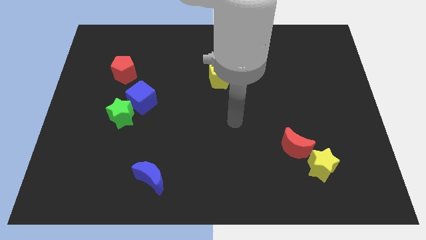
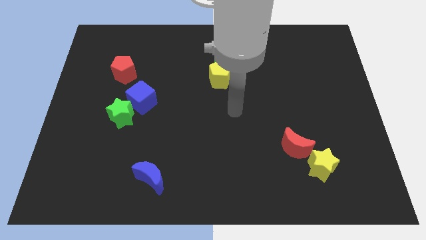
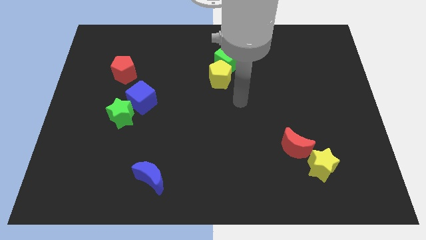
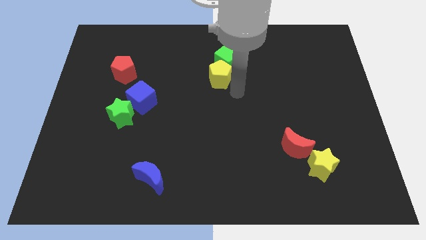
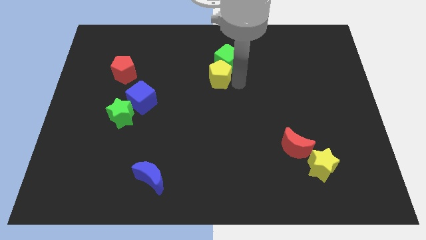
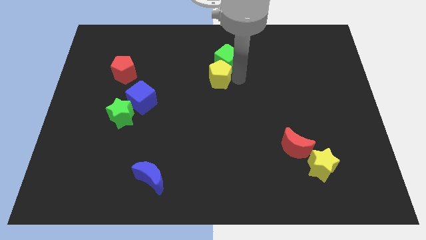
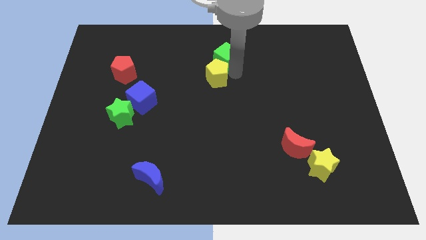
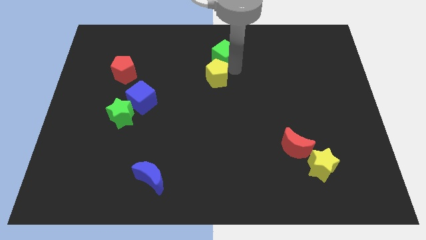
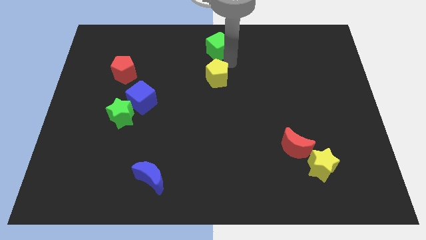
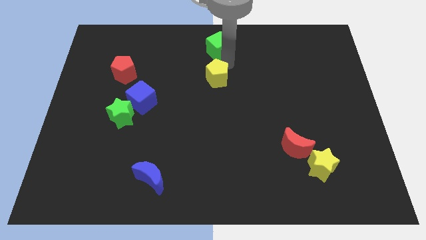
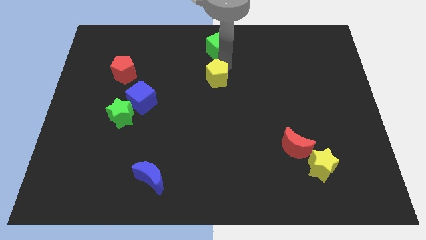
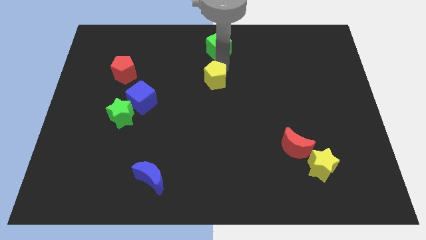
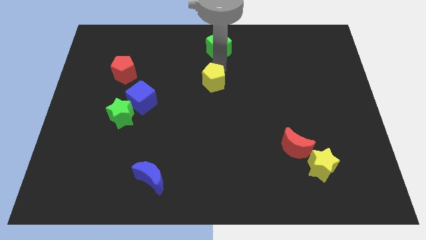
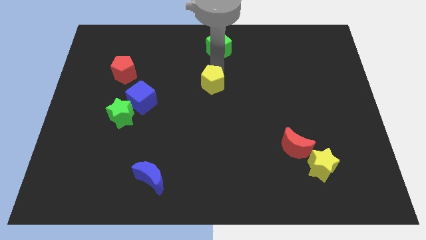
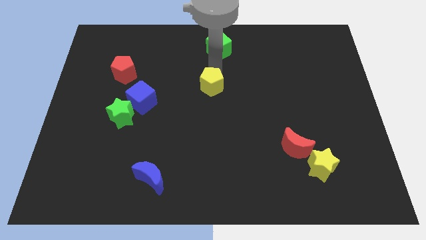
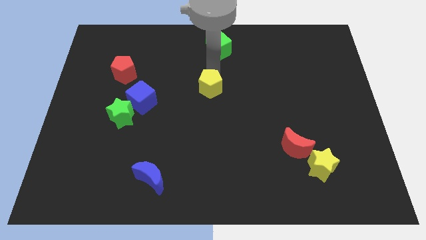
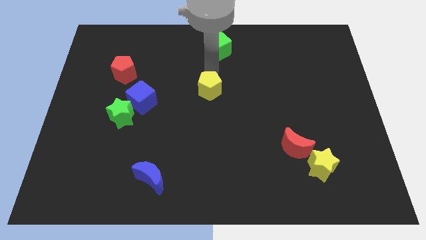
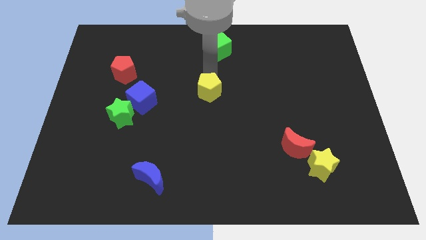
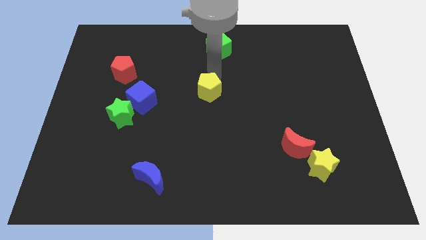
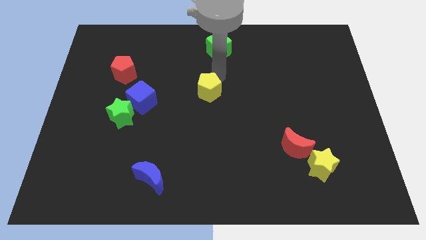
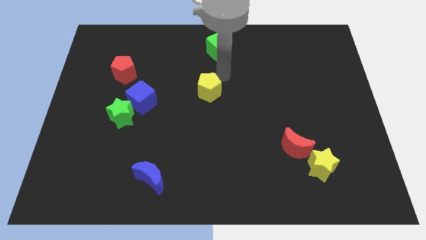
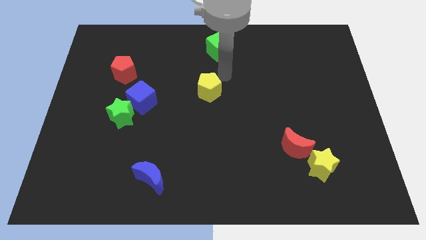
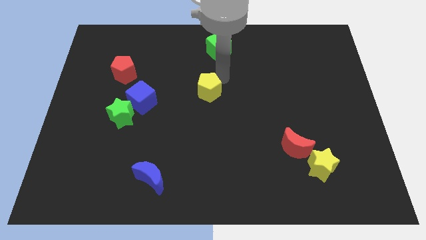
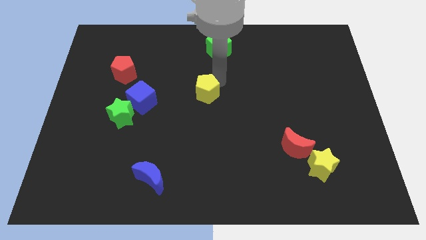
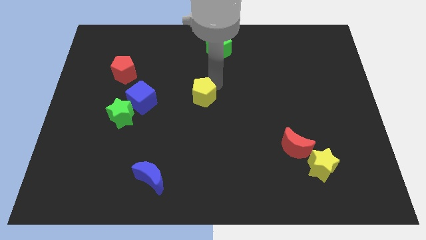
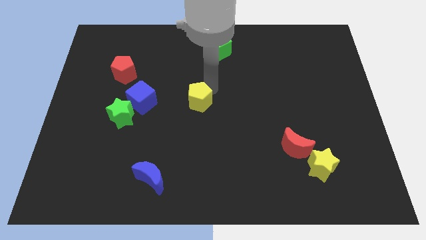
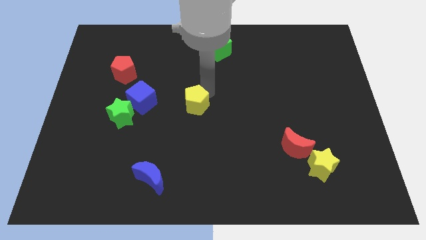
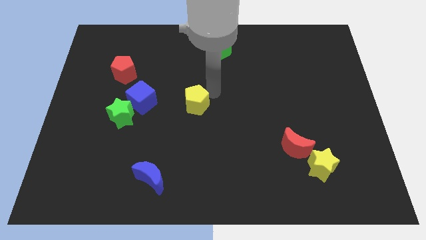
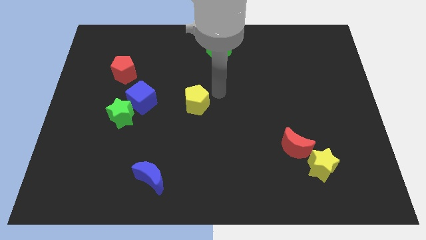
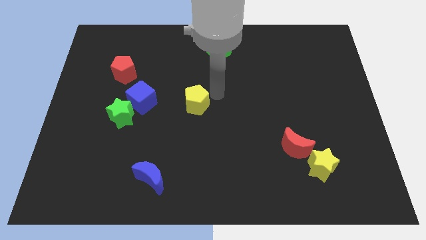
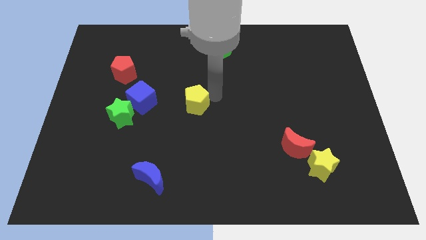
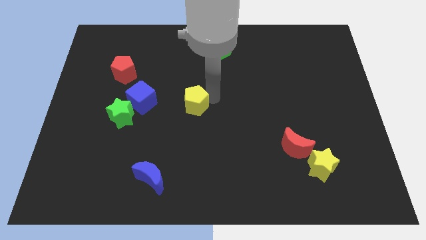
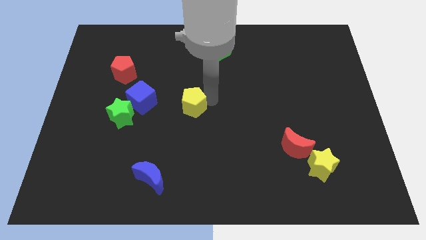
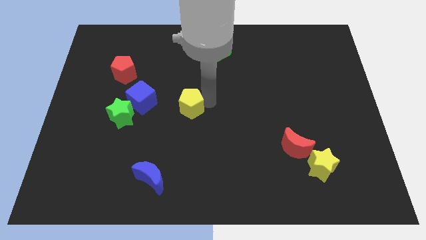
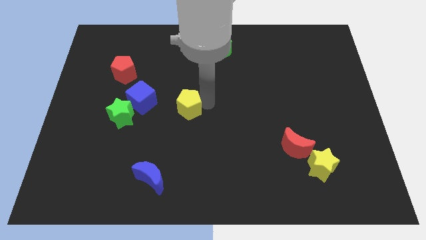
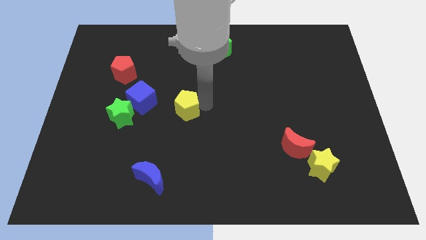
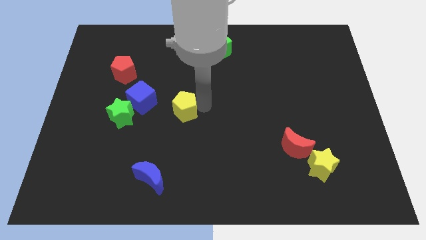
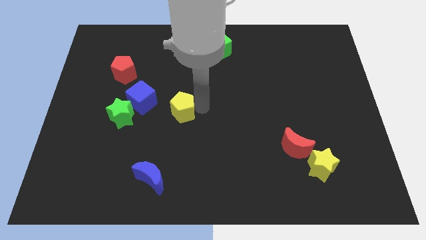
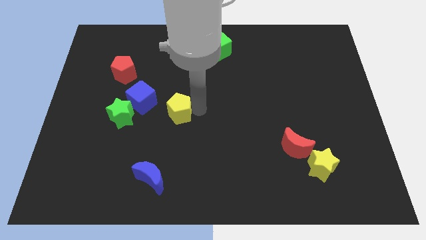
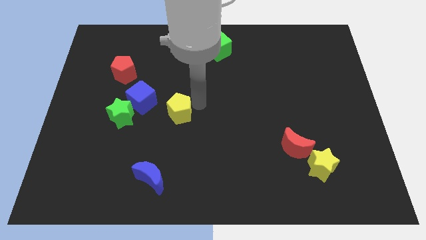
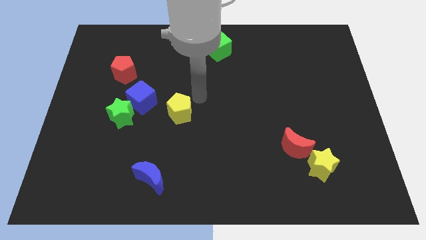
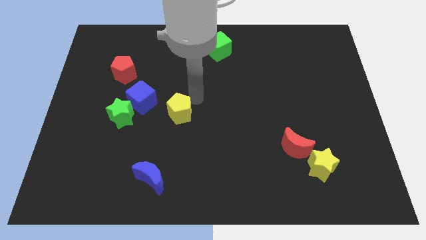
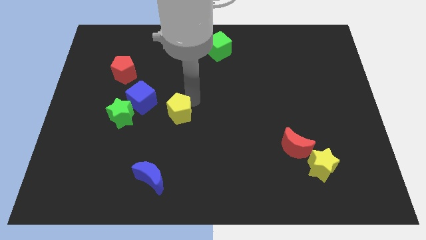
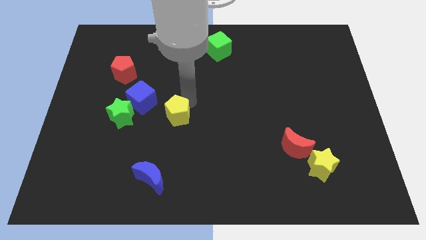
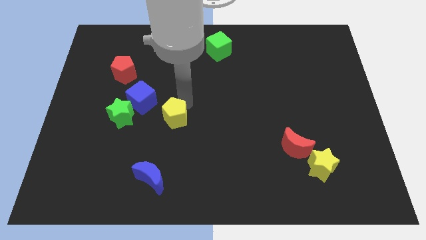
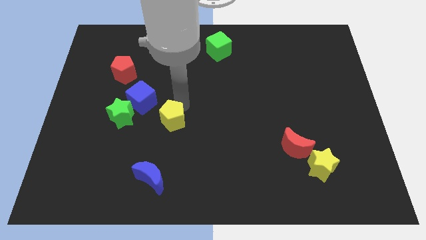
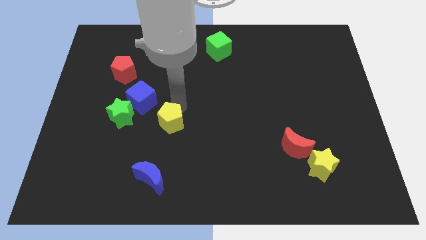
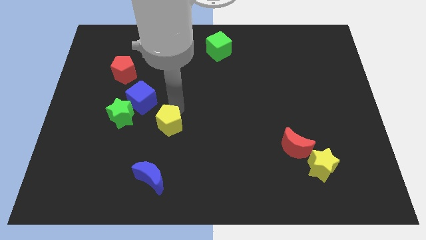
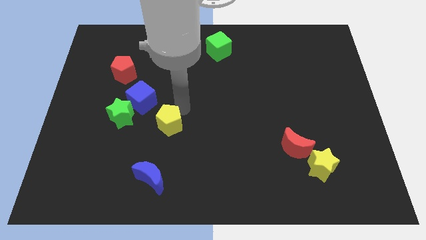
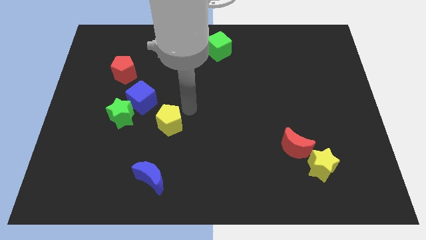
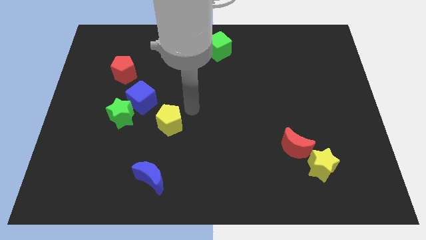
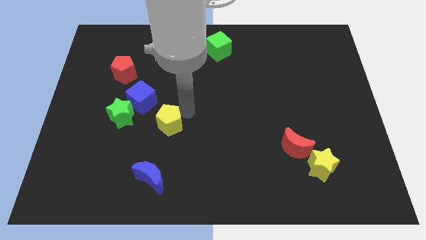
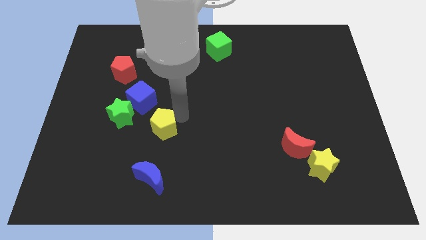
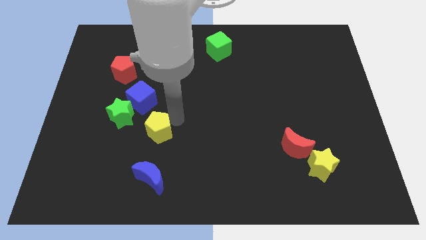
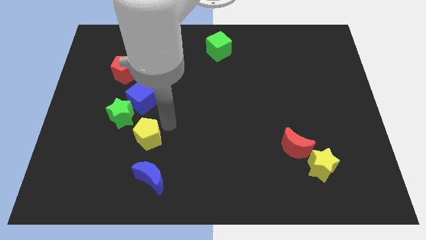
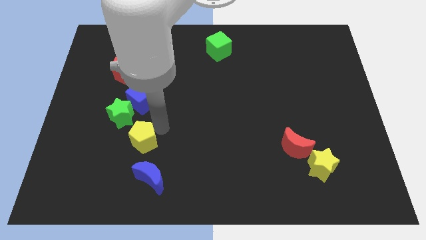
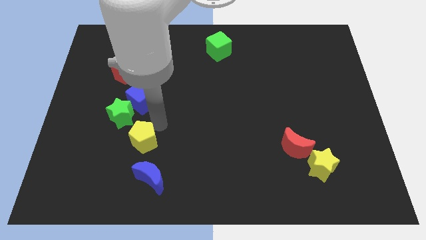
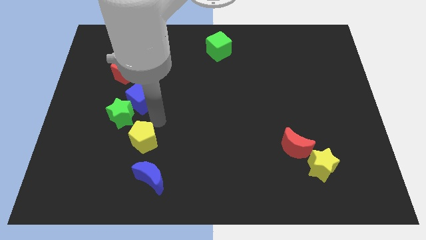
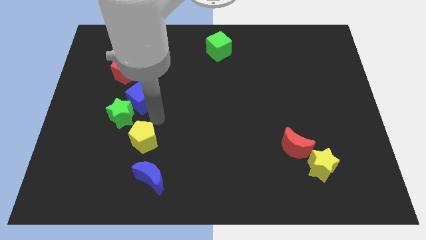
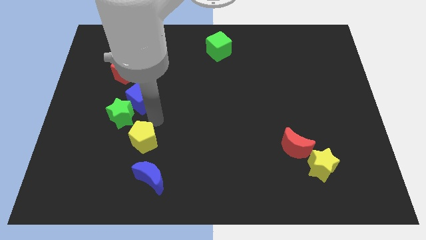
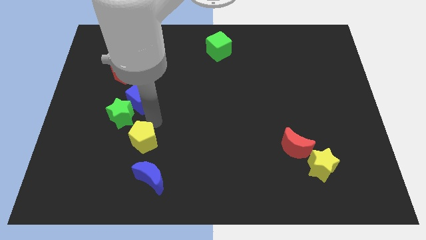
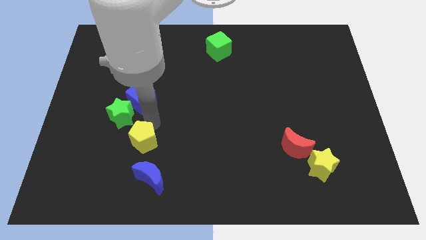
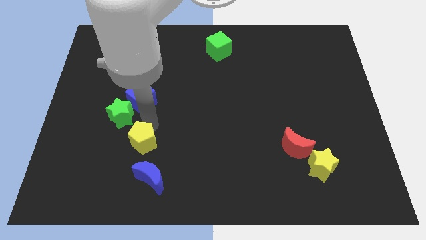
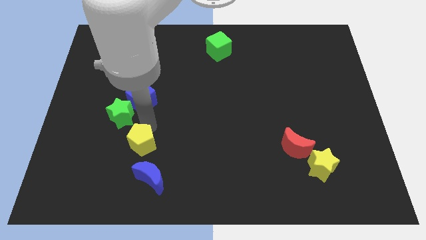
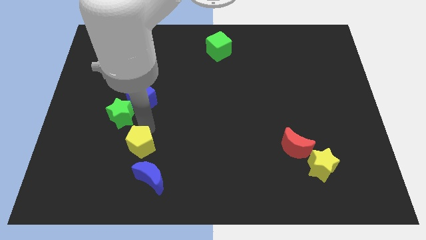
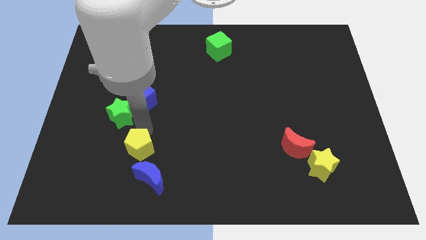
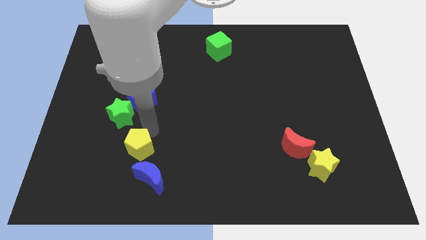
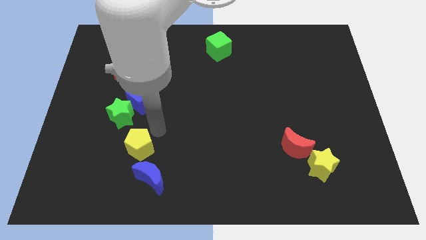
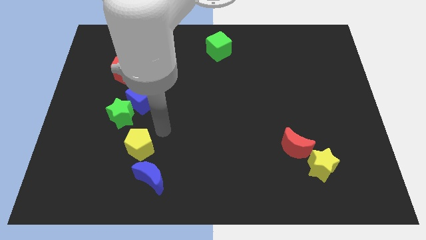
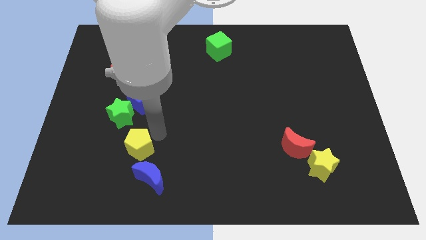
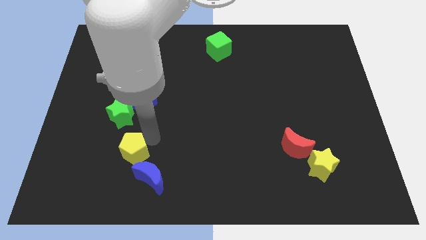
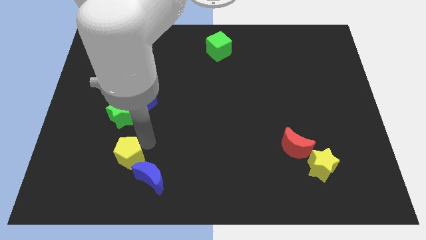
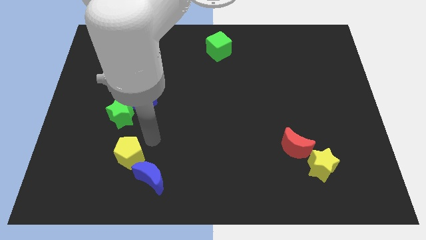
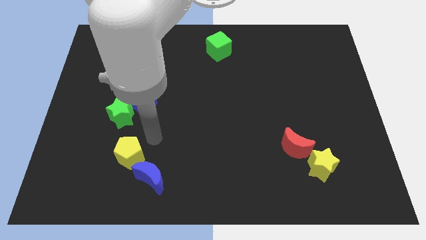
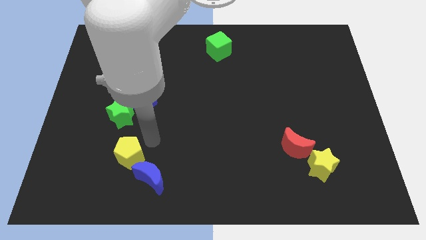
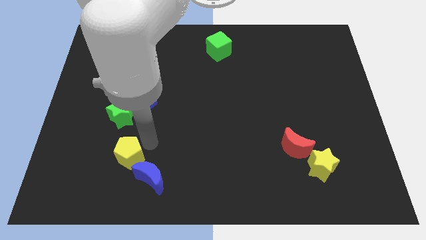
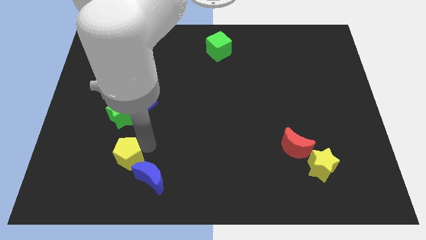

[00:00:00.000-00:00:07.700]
slide the yellow pentagon to the left side of the blue moon

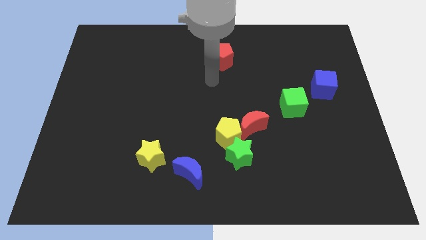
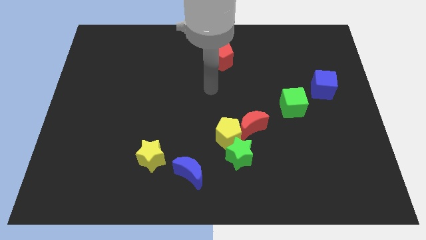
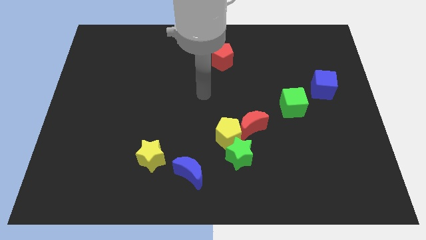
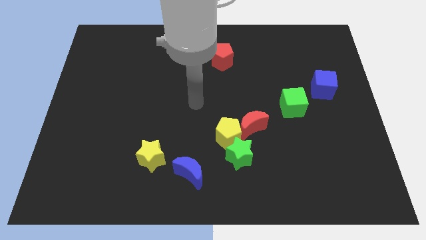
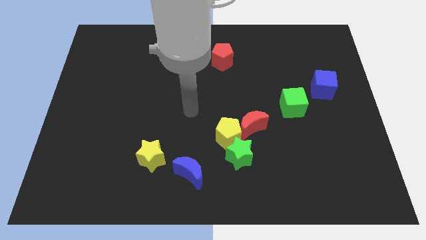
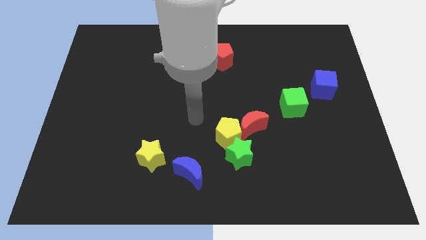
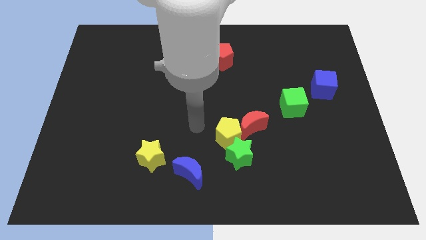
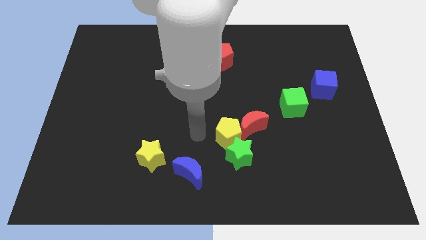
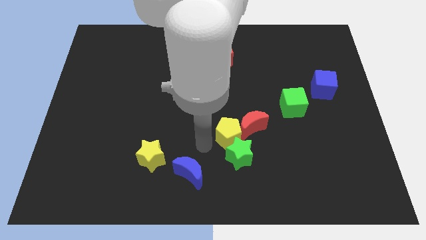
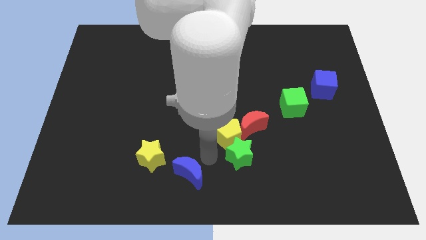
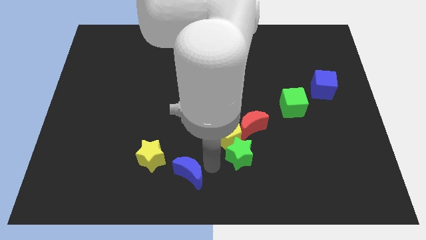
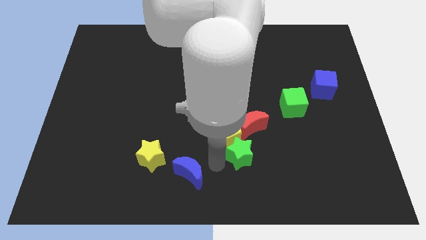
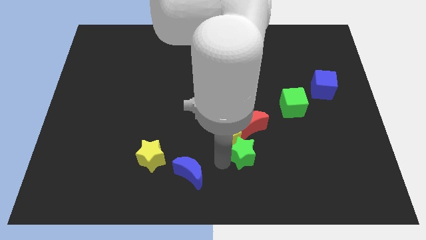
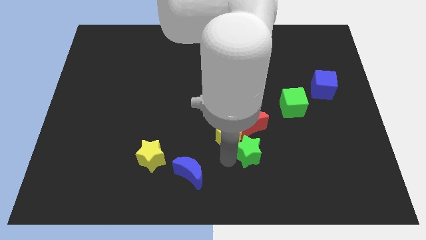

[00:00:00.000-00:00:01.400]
move the green star to the right side of the yellow pentagon
